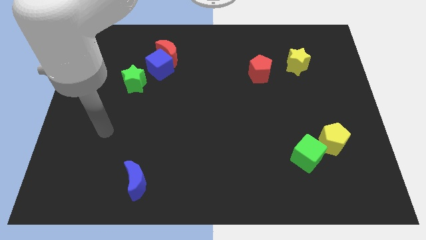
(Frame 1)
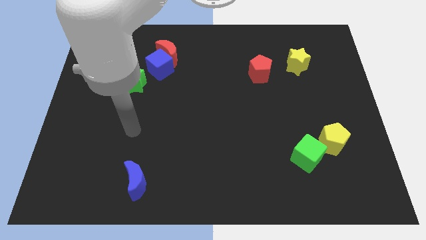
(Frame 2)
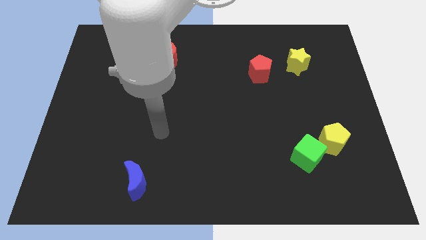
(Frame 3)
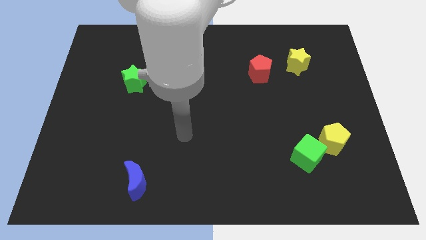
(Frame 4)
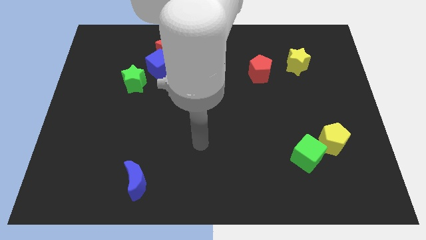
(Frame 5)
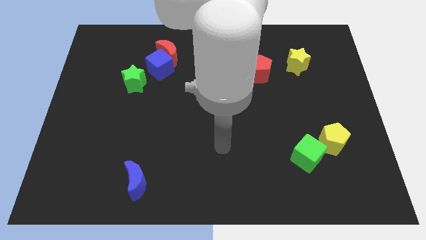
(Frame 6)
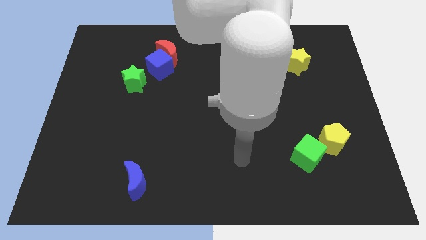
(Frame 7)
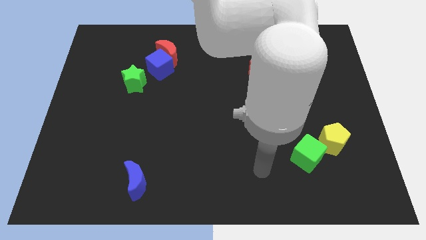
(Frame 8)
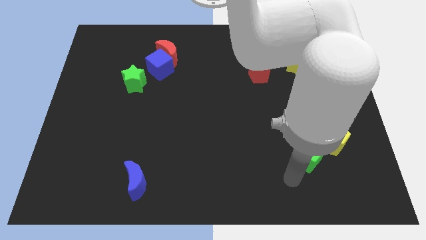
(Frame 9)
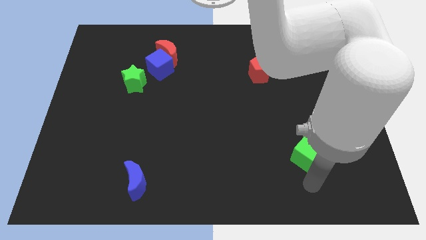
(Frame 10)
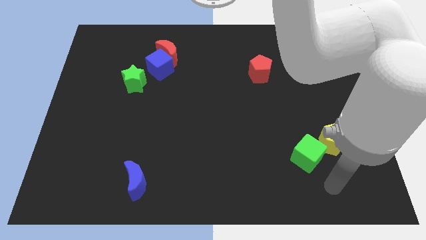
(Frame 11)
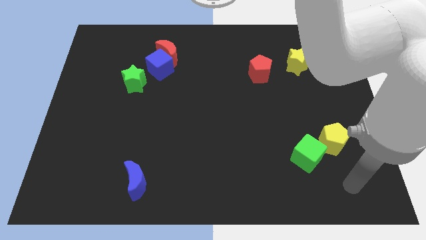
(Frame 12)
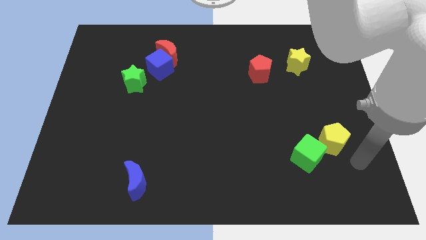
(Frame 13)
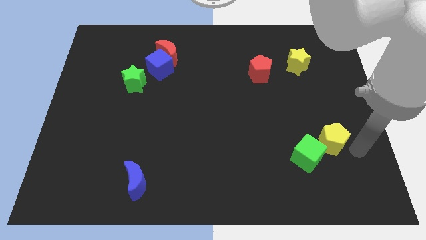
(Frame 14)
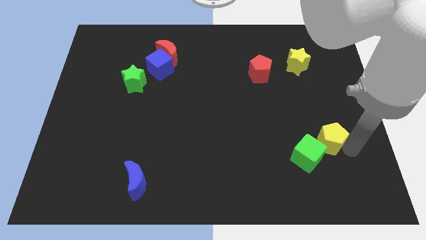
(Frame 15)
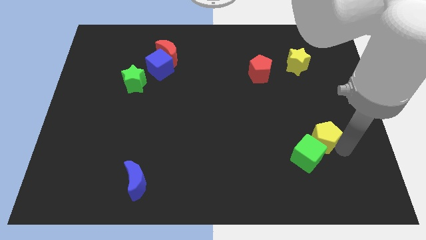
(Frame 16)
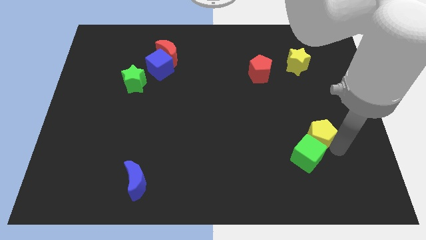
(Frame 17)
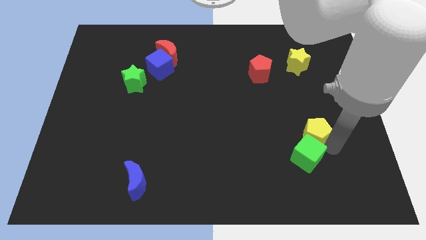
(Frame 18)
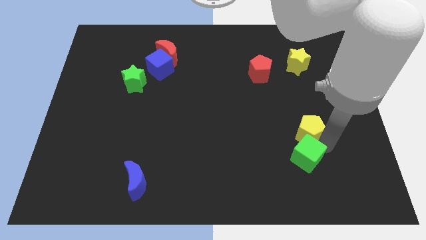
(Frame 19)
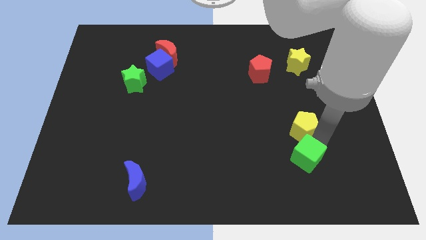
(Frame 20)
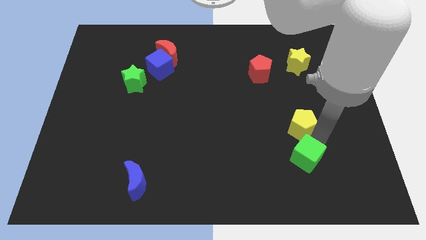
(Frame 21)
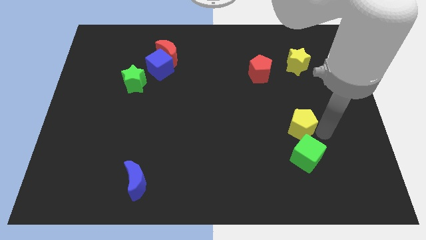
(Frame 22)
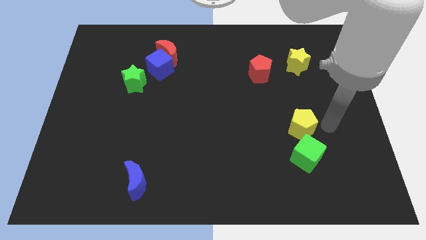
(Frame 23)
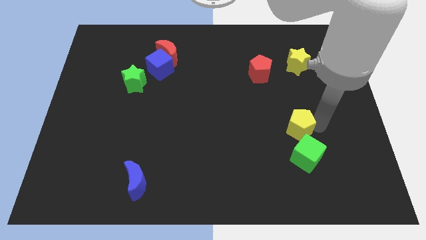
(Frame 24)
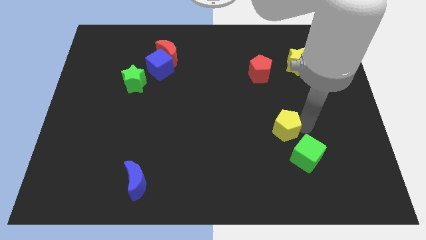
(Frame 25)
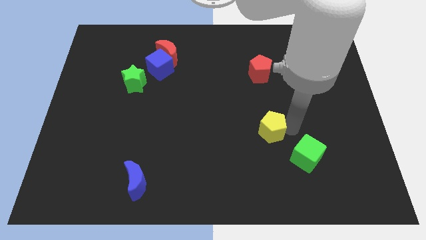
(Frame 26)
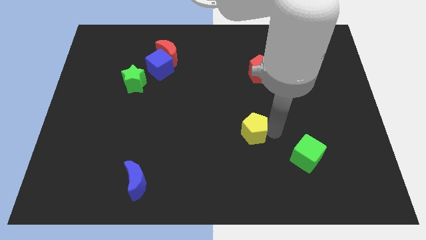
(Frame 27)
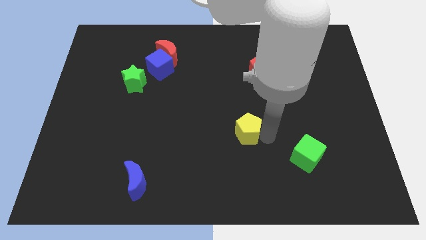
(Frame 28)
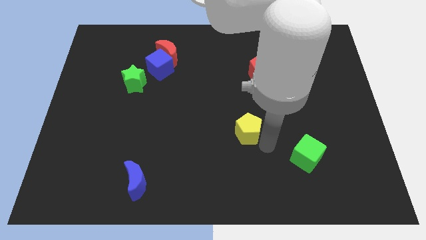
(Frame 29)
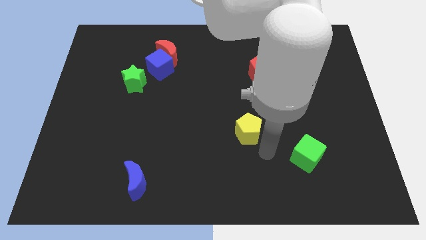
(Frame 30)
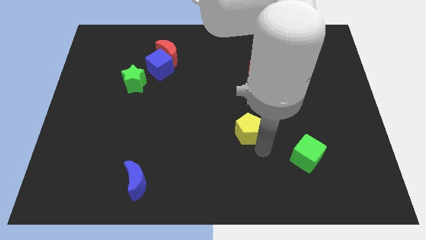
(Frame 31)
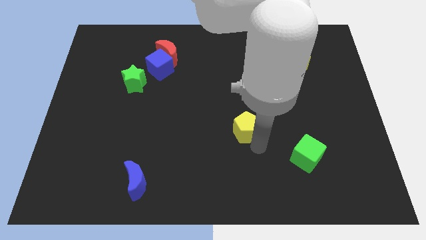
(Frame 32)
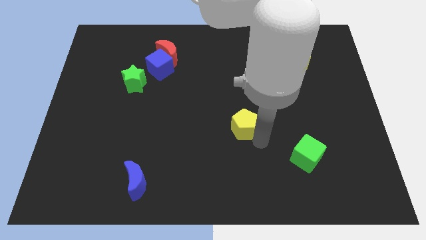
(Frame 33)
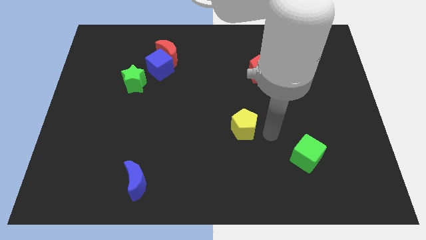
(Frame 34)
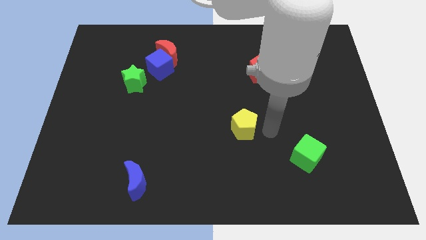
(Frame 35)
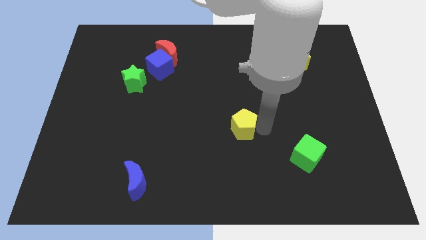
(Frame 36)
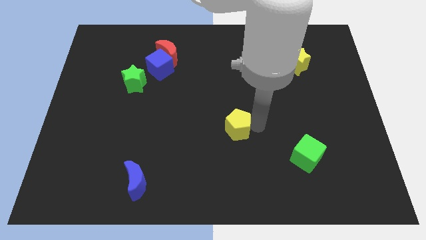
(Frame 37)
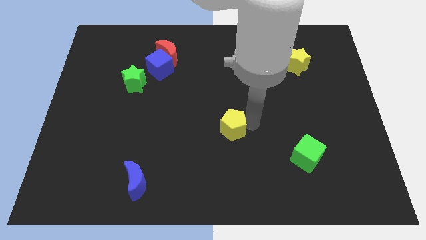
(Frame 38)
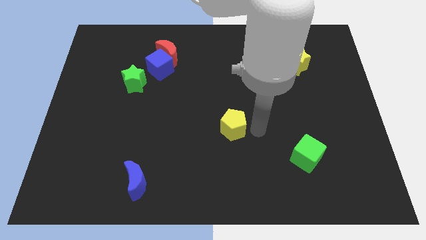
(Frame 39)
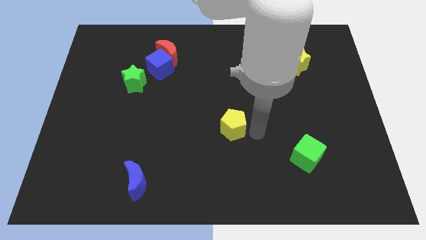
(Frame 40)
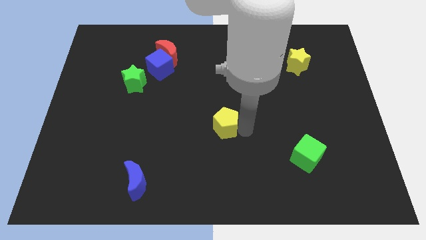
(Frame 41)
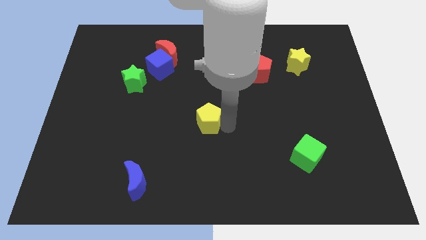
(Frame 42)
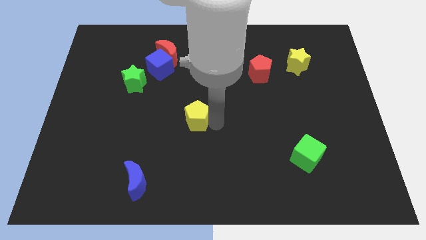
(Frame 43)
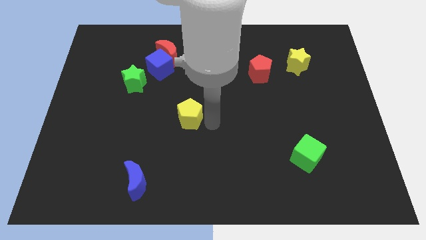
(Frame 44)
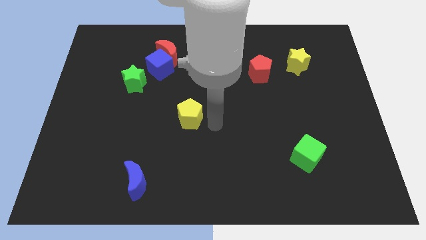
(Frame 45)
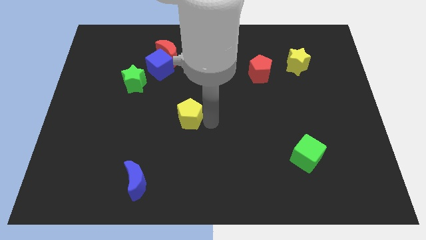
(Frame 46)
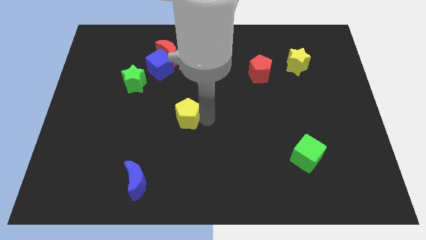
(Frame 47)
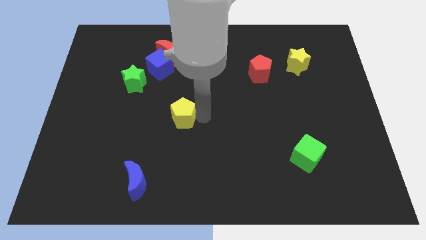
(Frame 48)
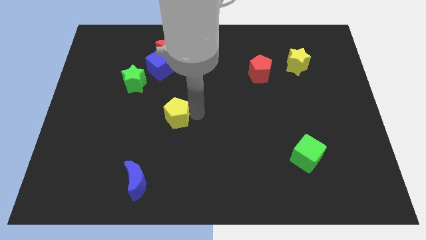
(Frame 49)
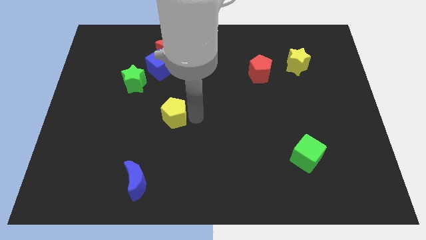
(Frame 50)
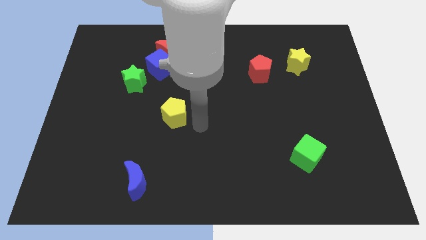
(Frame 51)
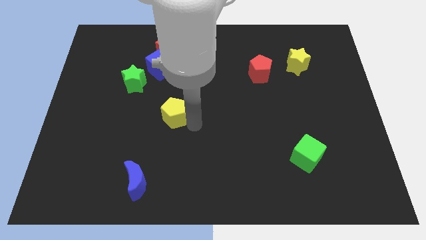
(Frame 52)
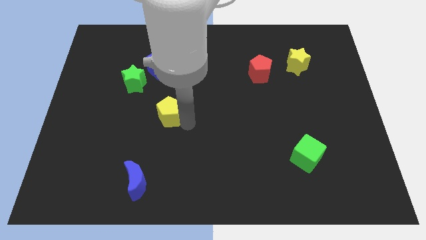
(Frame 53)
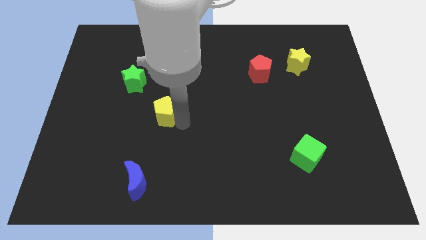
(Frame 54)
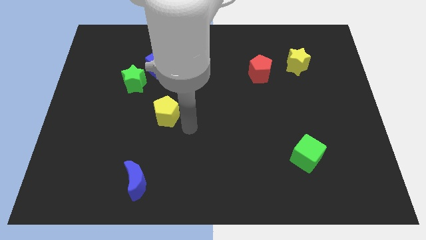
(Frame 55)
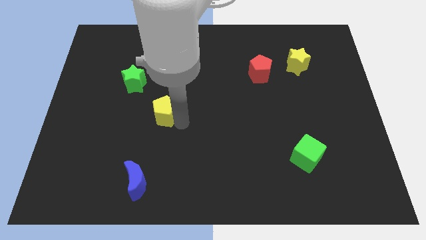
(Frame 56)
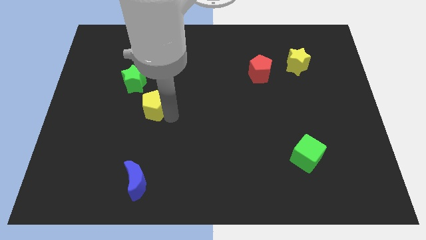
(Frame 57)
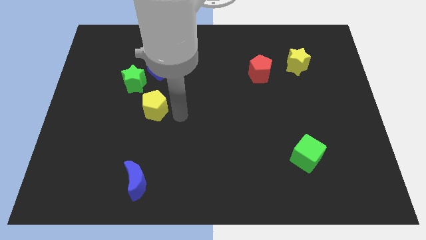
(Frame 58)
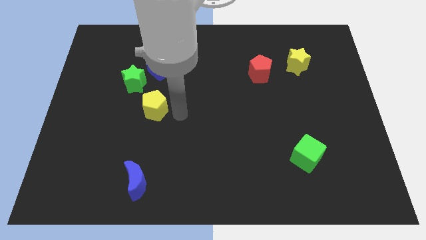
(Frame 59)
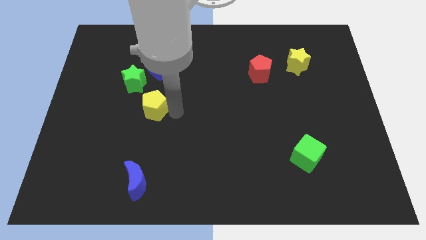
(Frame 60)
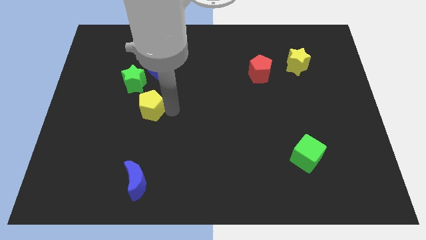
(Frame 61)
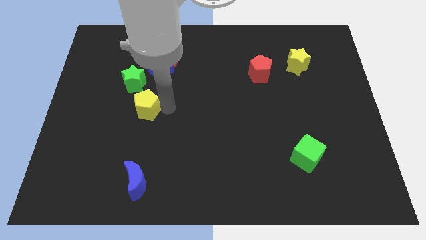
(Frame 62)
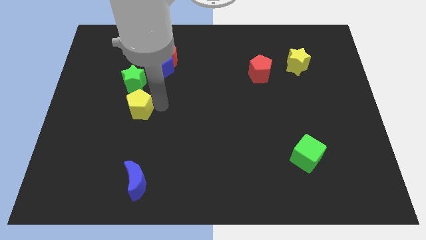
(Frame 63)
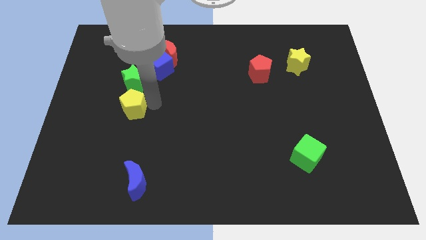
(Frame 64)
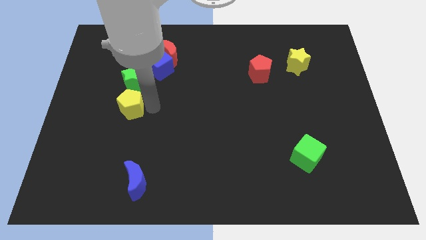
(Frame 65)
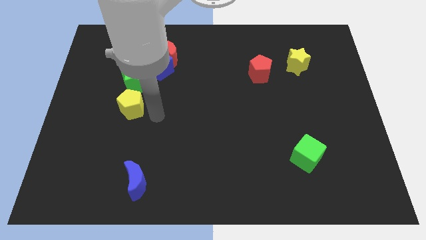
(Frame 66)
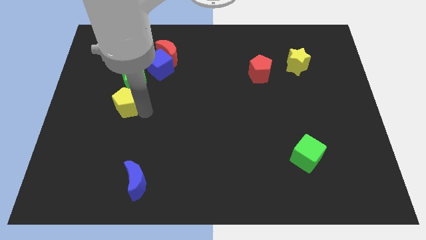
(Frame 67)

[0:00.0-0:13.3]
move the yellow pentagon to the bottom left of the green star

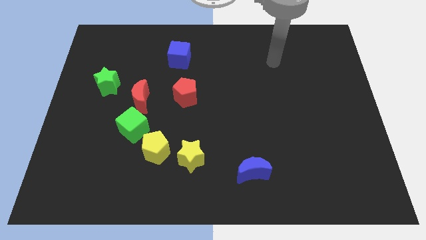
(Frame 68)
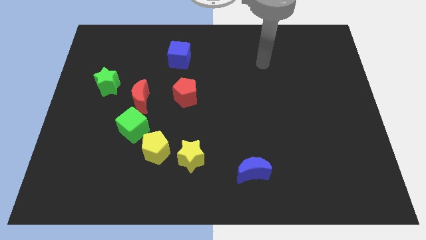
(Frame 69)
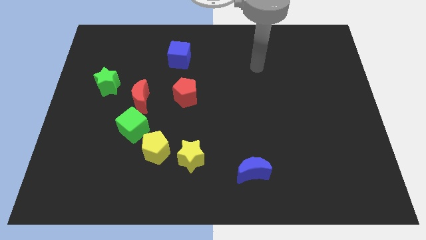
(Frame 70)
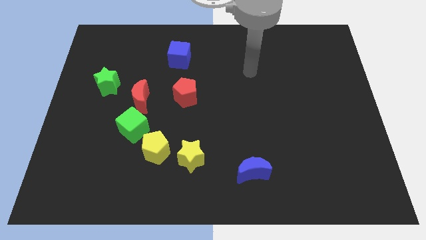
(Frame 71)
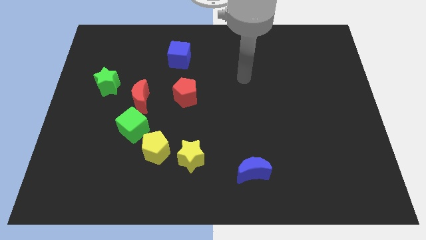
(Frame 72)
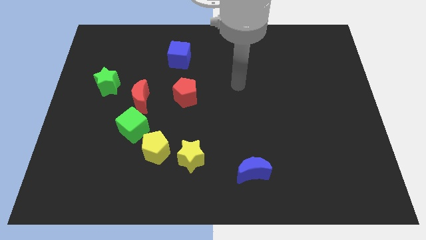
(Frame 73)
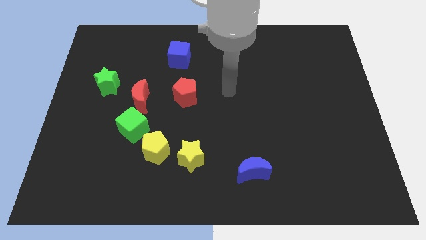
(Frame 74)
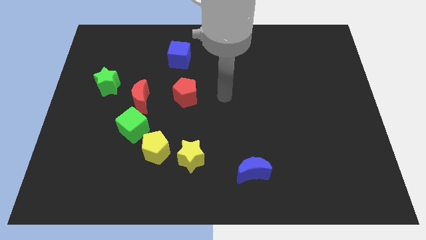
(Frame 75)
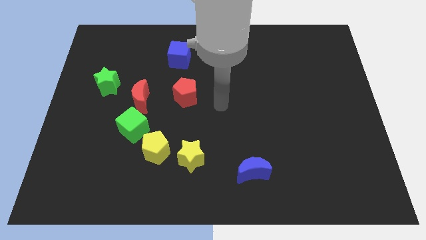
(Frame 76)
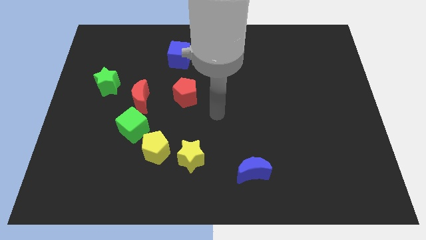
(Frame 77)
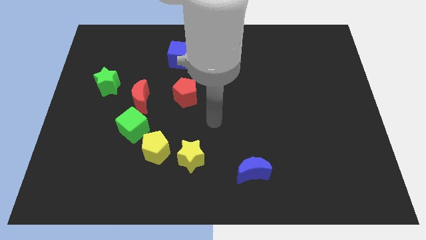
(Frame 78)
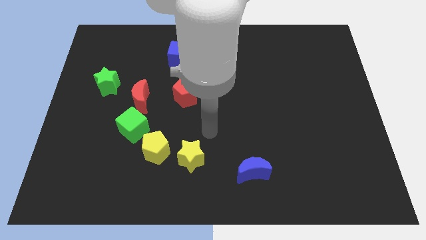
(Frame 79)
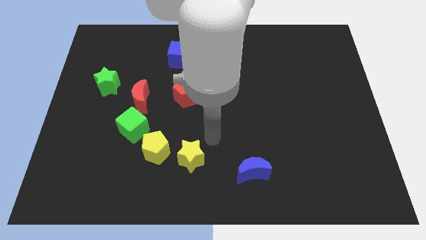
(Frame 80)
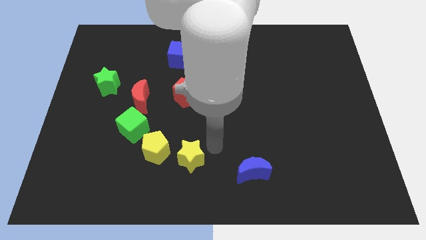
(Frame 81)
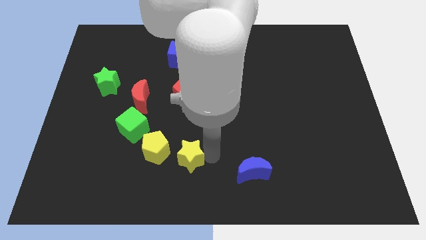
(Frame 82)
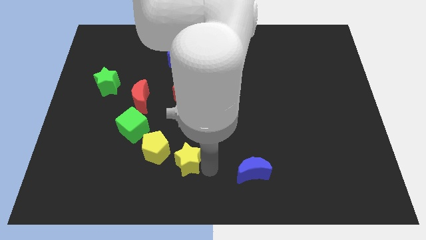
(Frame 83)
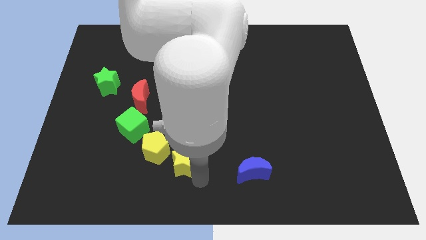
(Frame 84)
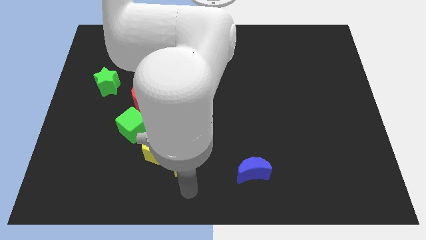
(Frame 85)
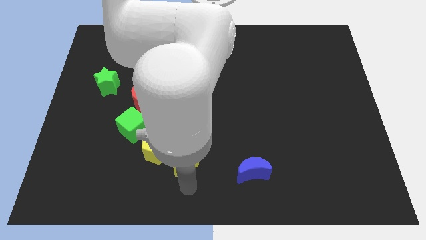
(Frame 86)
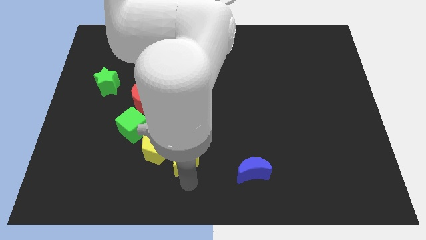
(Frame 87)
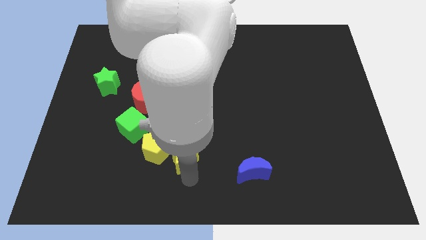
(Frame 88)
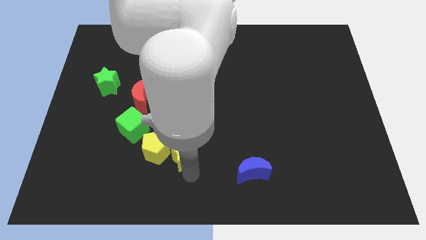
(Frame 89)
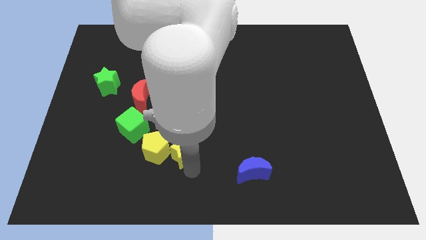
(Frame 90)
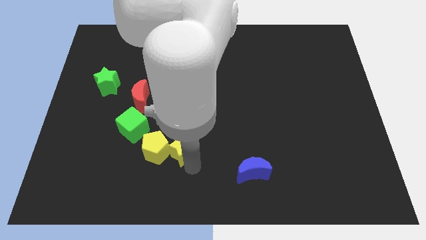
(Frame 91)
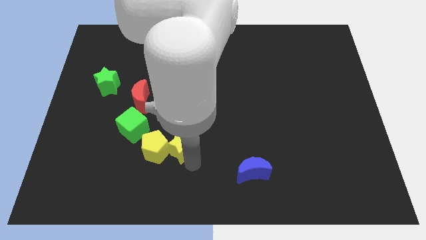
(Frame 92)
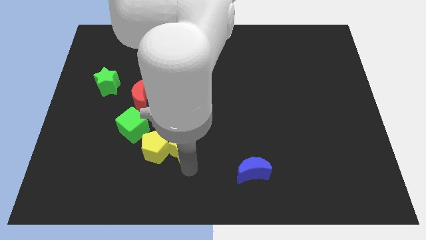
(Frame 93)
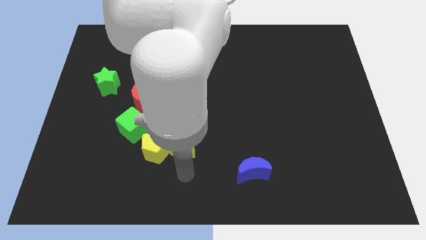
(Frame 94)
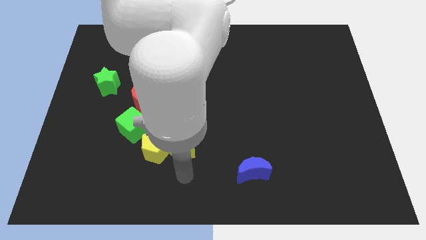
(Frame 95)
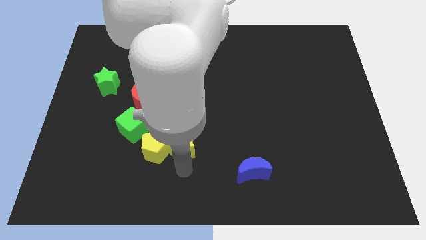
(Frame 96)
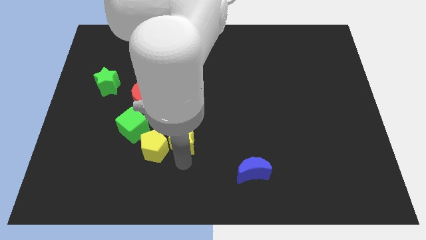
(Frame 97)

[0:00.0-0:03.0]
put the yellow star to the right of the green cube
